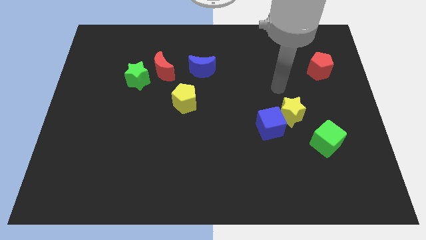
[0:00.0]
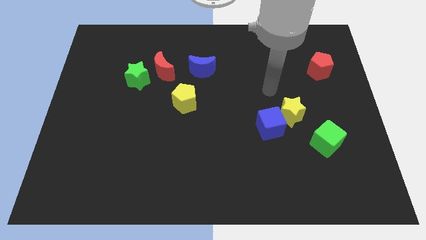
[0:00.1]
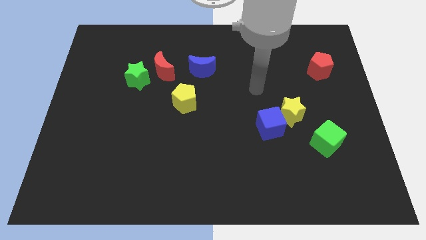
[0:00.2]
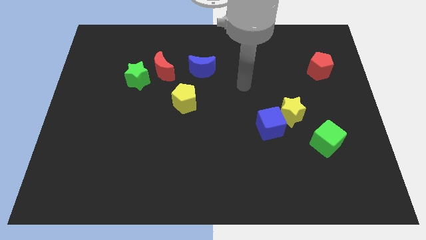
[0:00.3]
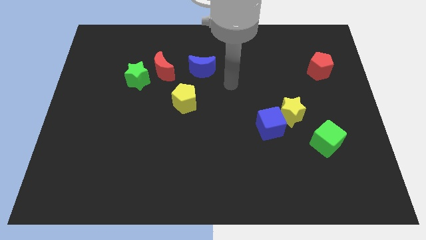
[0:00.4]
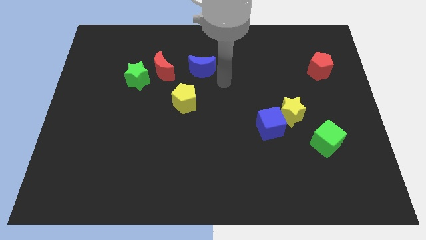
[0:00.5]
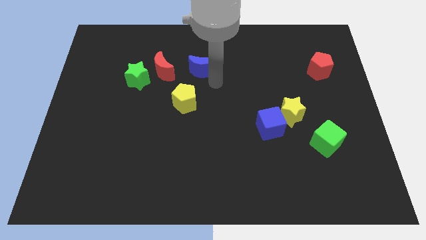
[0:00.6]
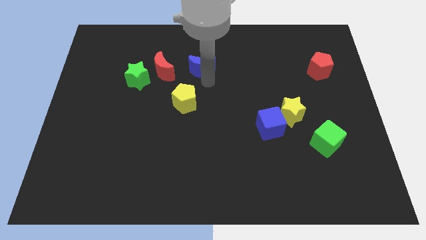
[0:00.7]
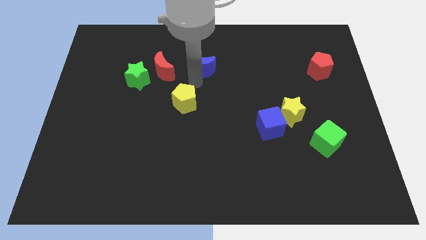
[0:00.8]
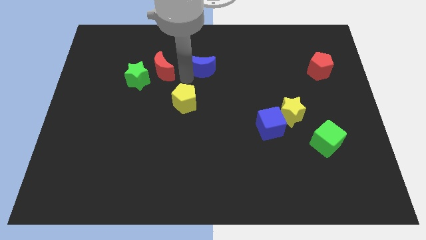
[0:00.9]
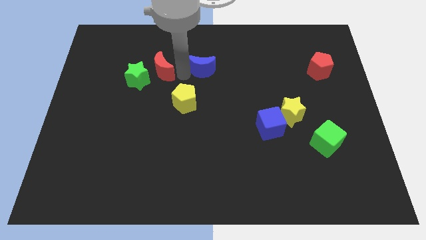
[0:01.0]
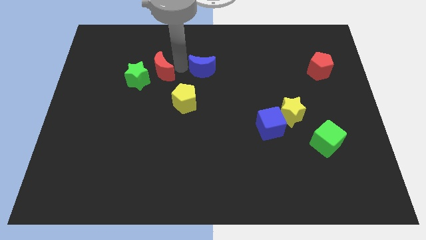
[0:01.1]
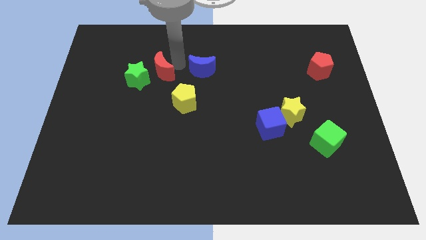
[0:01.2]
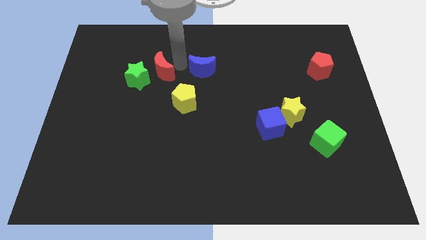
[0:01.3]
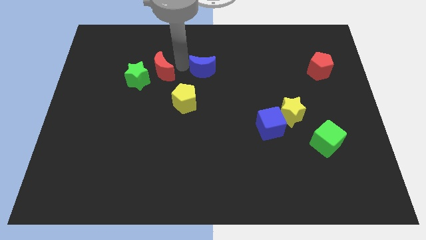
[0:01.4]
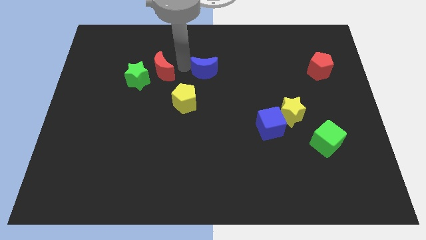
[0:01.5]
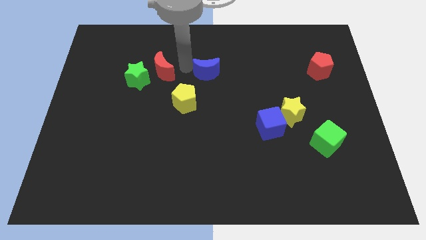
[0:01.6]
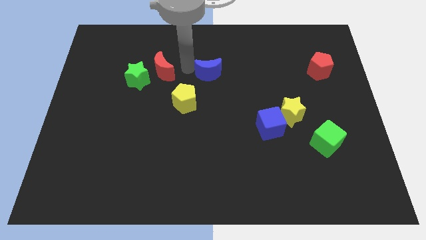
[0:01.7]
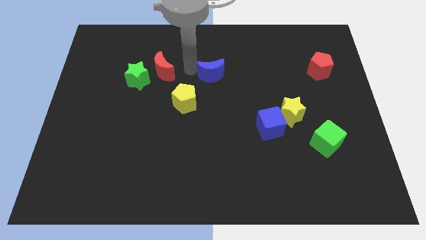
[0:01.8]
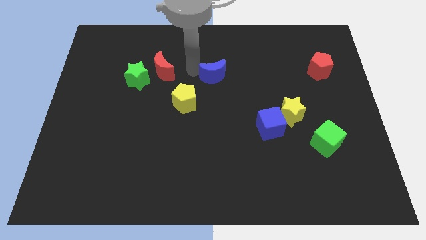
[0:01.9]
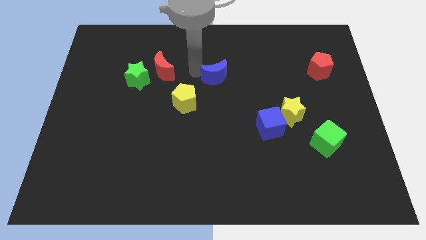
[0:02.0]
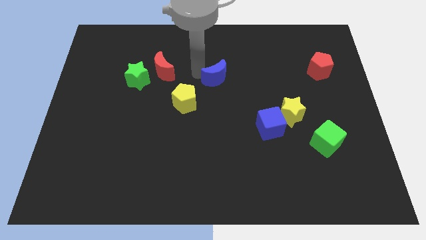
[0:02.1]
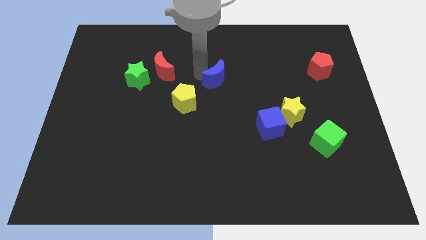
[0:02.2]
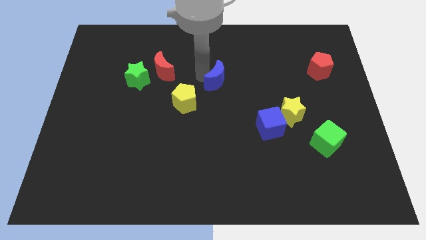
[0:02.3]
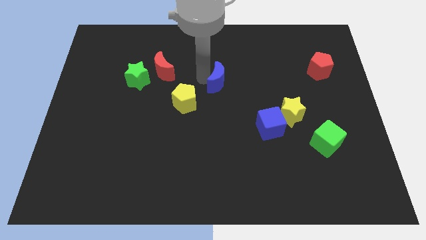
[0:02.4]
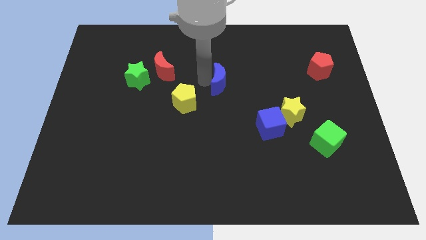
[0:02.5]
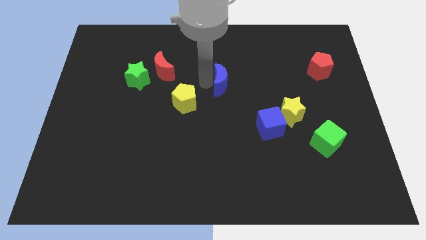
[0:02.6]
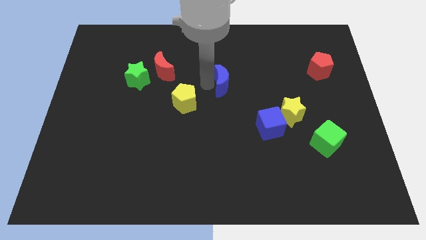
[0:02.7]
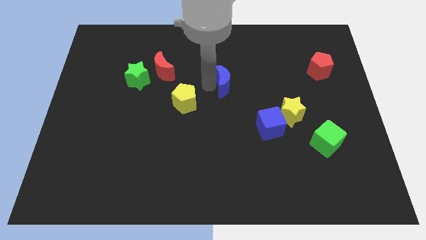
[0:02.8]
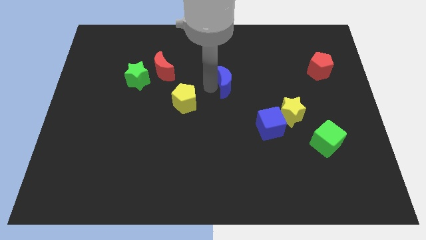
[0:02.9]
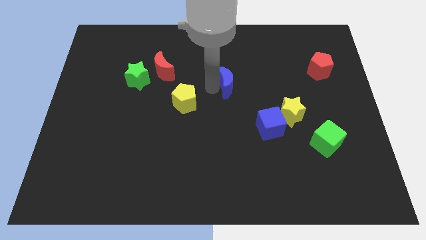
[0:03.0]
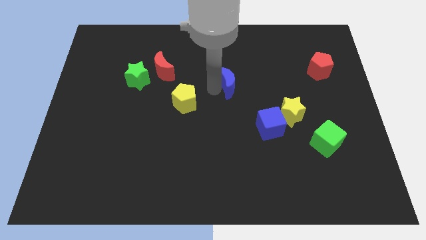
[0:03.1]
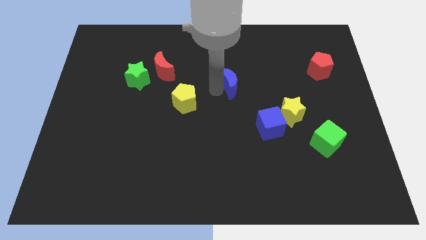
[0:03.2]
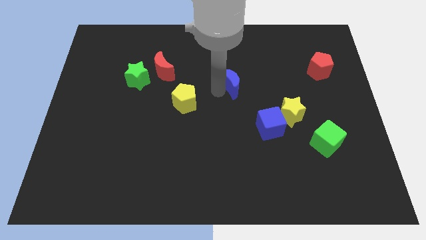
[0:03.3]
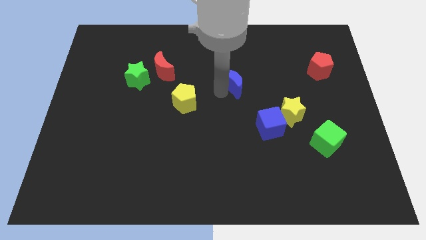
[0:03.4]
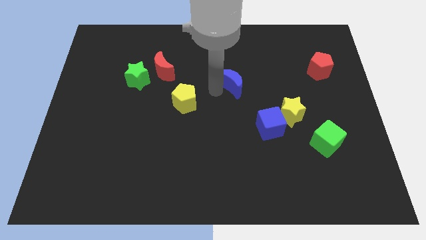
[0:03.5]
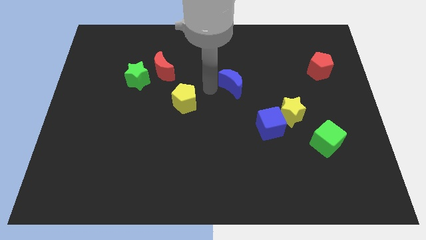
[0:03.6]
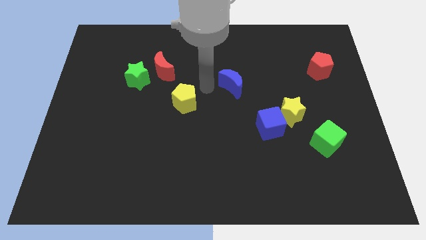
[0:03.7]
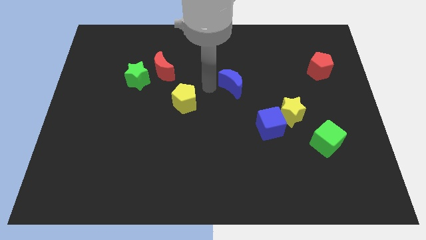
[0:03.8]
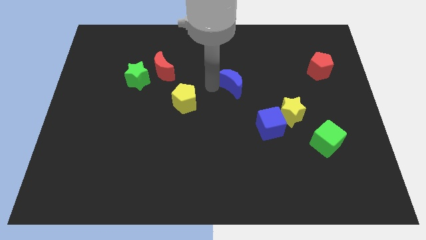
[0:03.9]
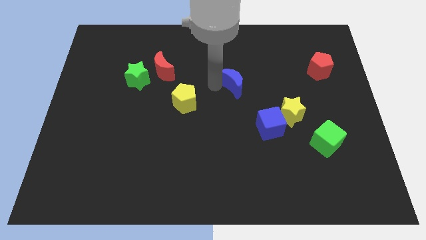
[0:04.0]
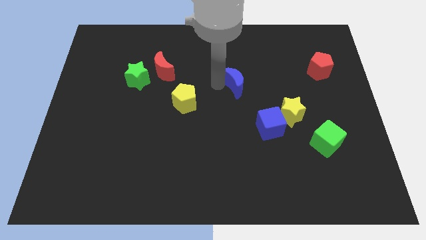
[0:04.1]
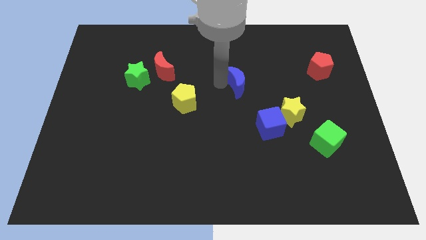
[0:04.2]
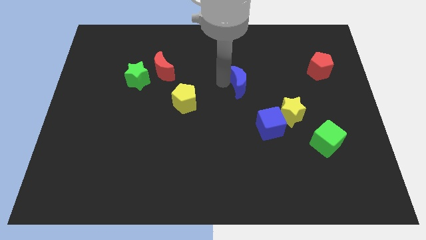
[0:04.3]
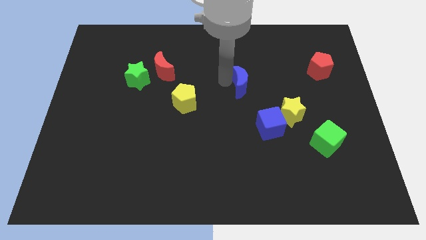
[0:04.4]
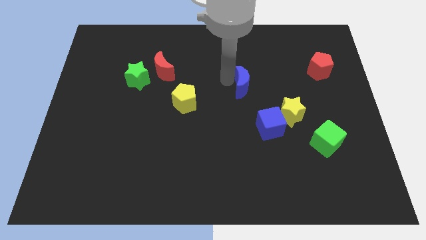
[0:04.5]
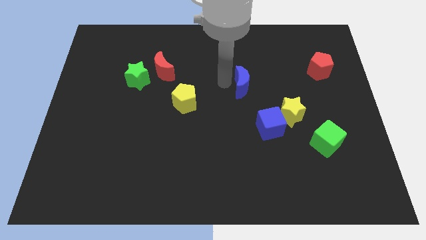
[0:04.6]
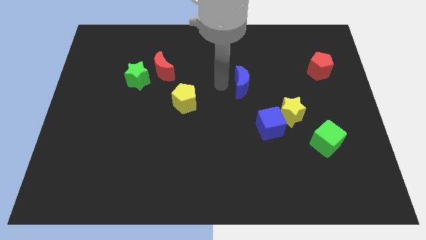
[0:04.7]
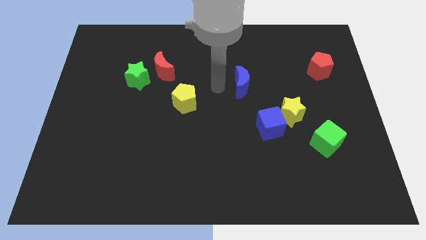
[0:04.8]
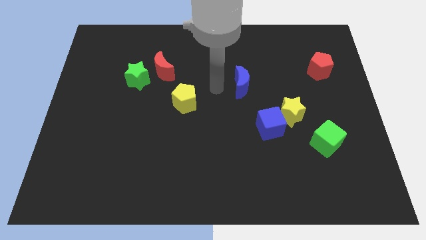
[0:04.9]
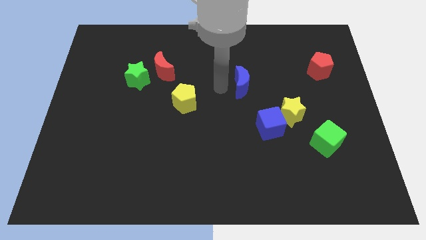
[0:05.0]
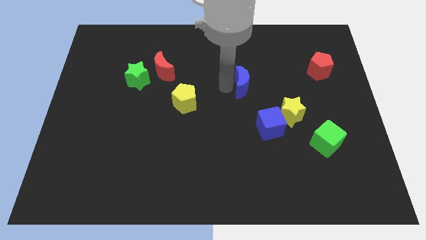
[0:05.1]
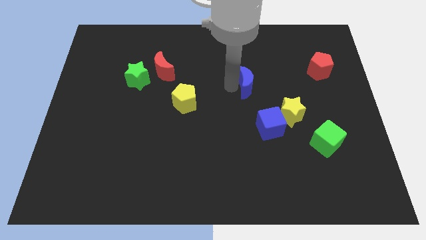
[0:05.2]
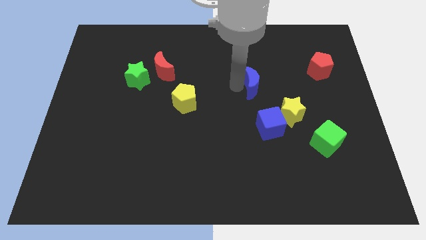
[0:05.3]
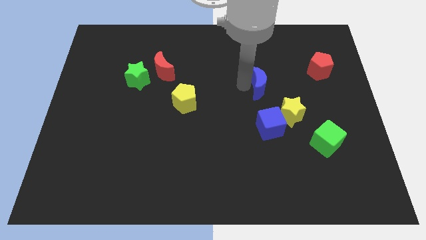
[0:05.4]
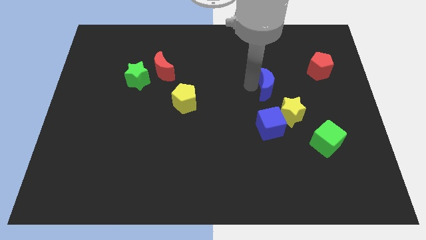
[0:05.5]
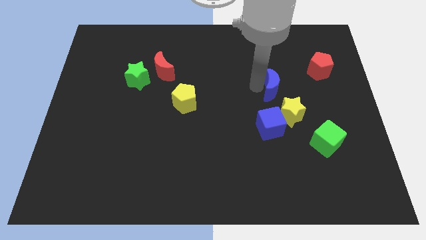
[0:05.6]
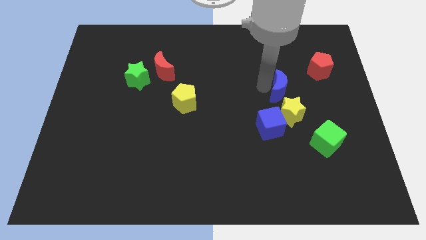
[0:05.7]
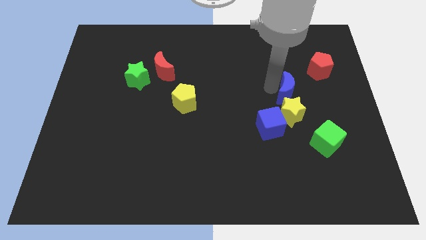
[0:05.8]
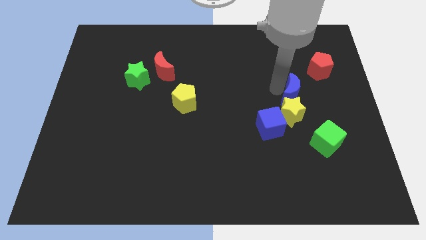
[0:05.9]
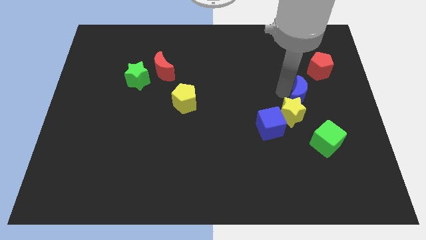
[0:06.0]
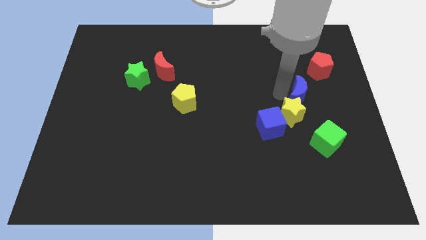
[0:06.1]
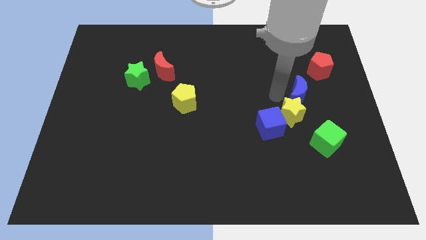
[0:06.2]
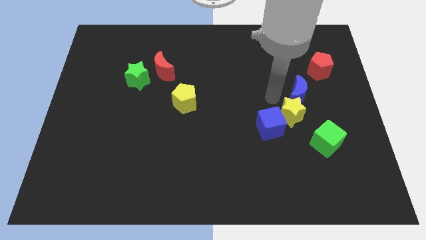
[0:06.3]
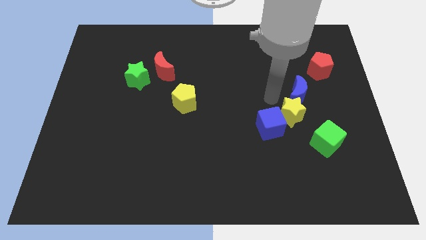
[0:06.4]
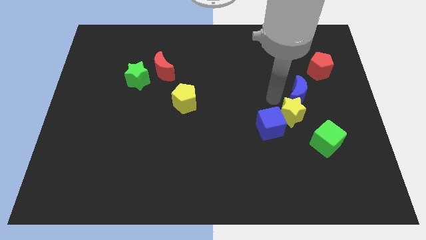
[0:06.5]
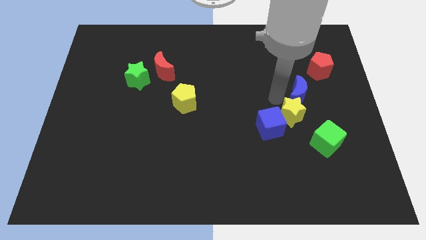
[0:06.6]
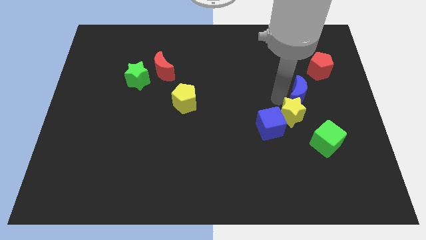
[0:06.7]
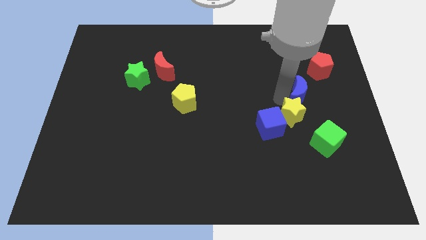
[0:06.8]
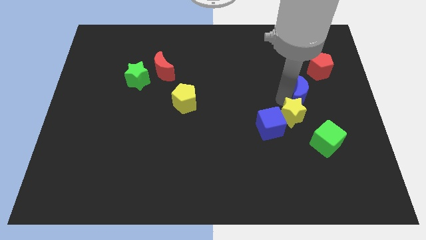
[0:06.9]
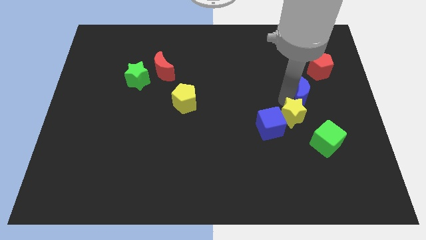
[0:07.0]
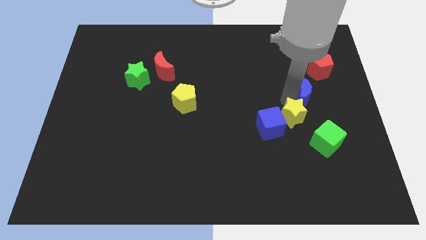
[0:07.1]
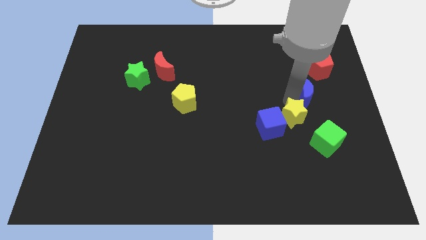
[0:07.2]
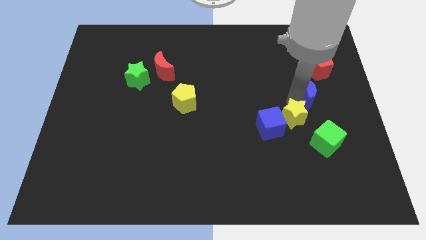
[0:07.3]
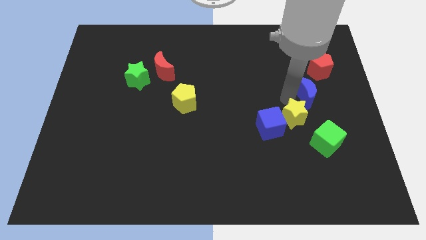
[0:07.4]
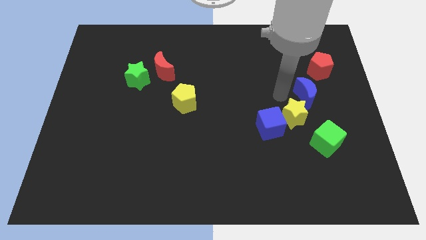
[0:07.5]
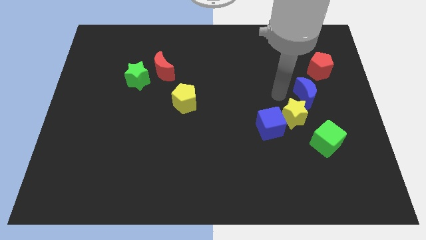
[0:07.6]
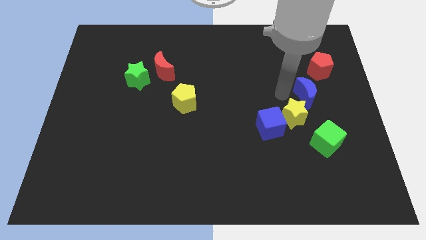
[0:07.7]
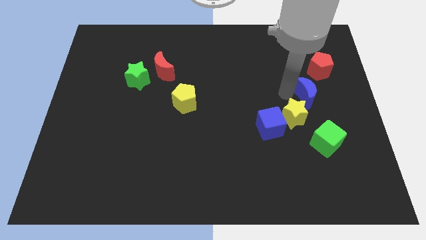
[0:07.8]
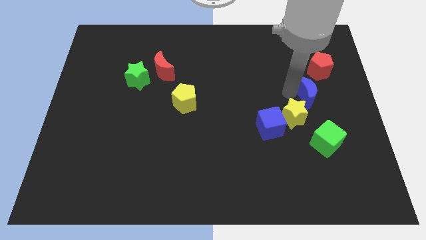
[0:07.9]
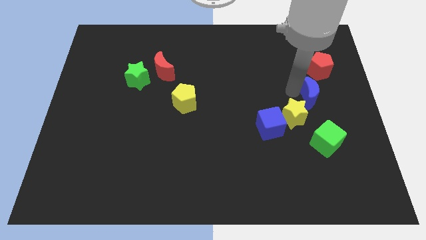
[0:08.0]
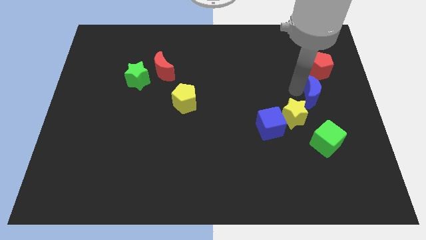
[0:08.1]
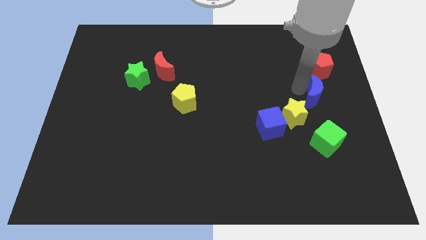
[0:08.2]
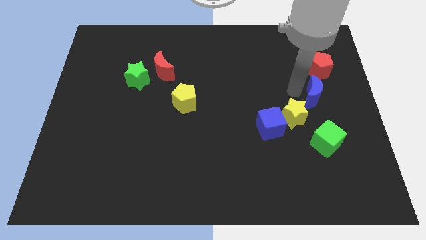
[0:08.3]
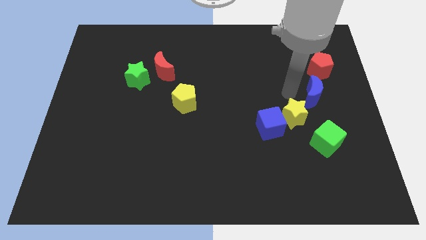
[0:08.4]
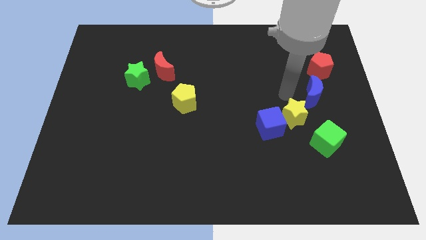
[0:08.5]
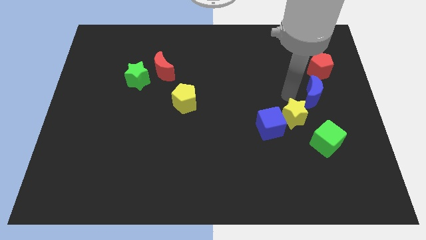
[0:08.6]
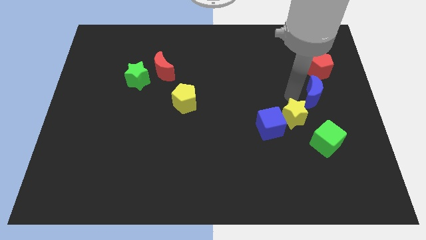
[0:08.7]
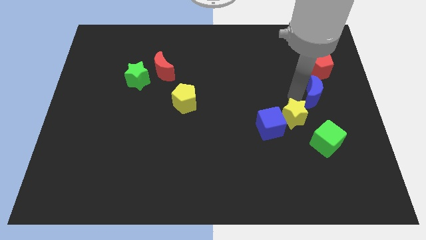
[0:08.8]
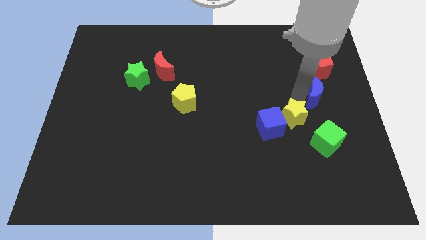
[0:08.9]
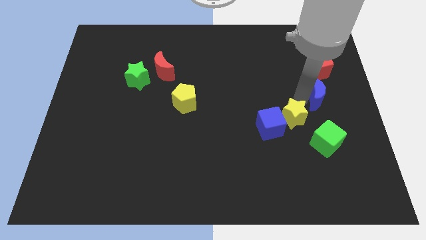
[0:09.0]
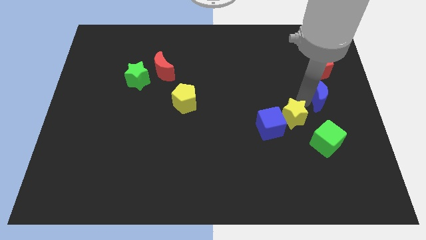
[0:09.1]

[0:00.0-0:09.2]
move the blue moon to the right side
